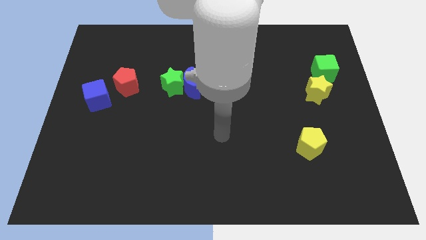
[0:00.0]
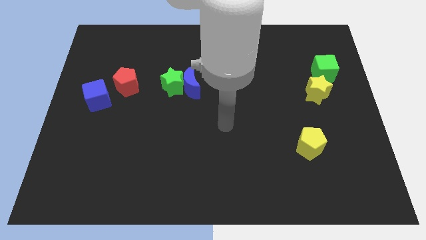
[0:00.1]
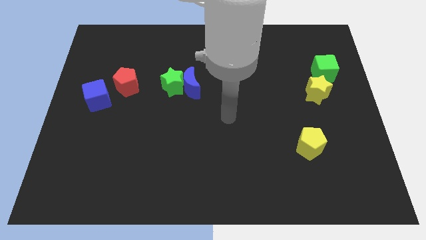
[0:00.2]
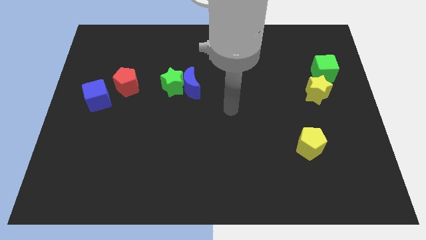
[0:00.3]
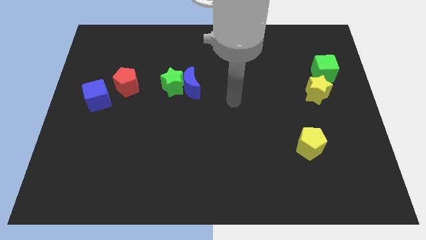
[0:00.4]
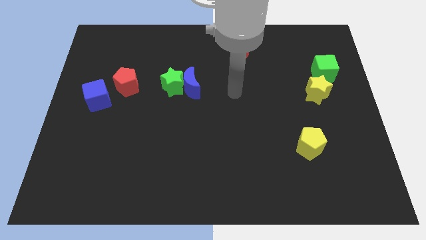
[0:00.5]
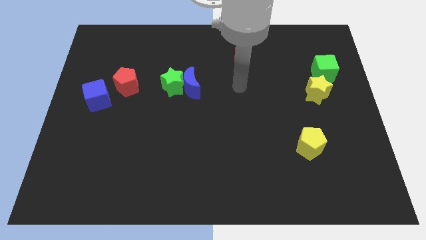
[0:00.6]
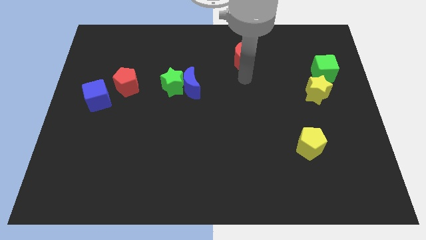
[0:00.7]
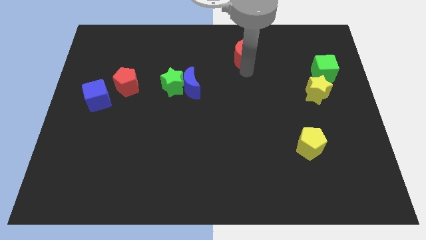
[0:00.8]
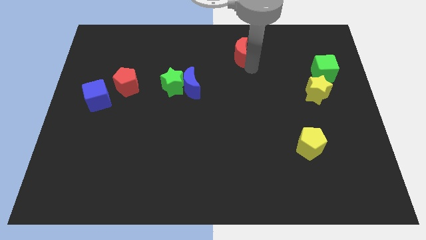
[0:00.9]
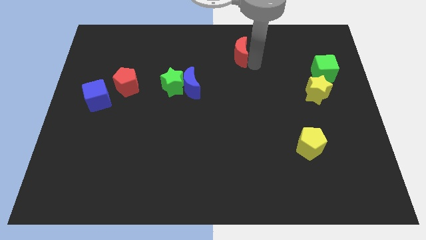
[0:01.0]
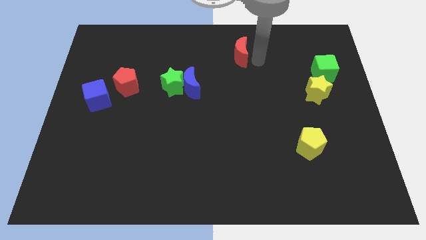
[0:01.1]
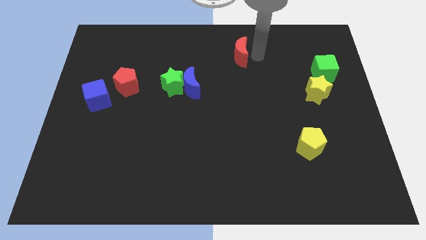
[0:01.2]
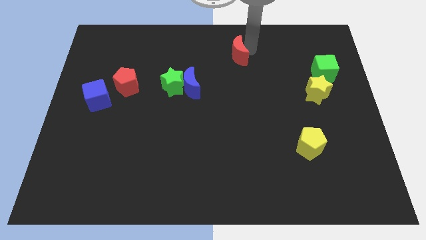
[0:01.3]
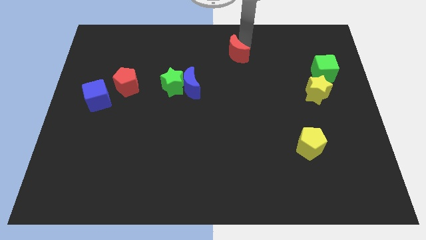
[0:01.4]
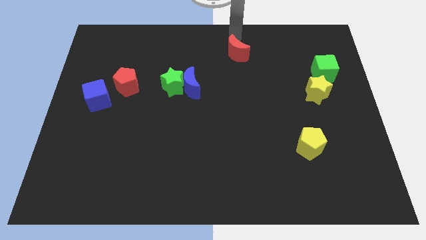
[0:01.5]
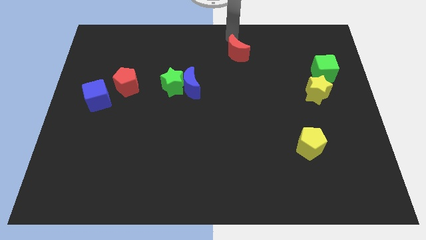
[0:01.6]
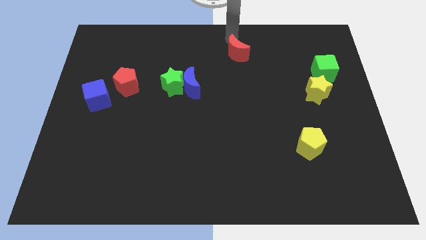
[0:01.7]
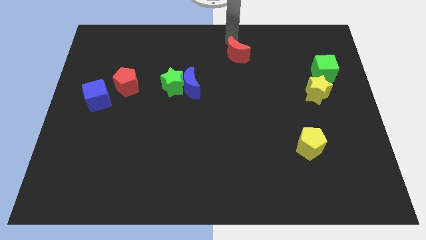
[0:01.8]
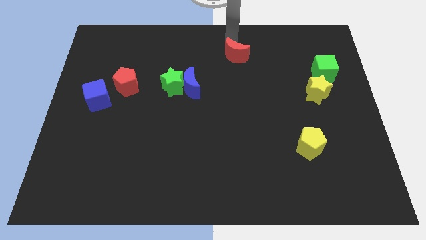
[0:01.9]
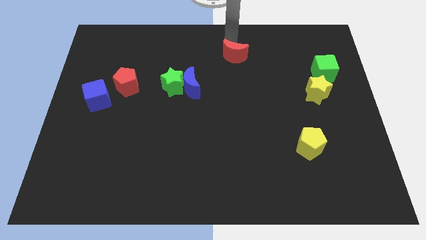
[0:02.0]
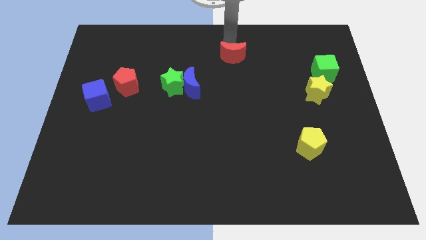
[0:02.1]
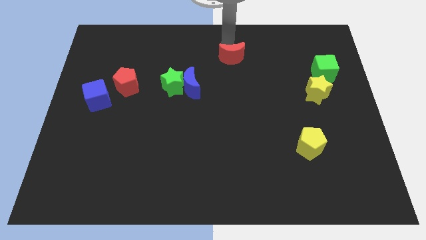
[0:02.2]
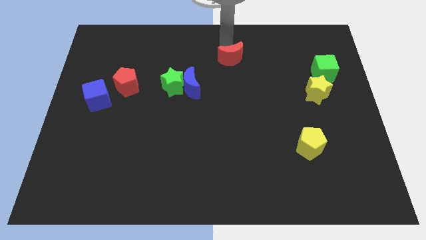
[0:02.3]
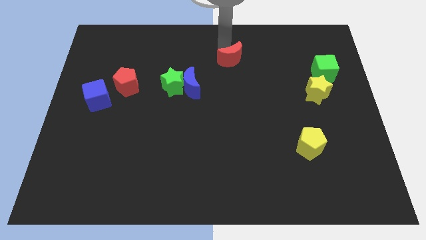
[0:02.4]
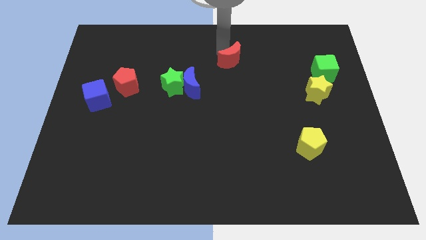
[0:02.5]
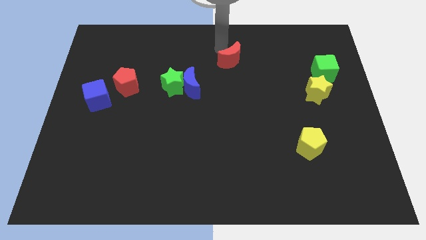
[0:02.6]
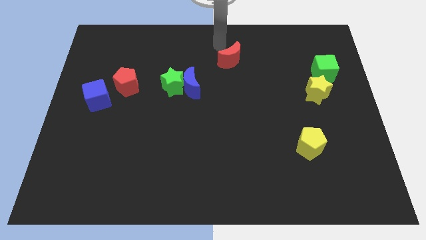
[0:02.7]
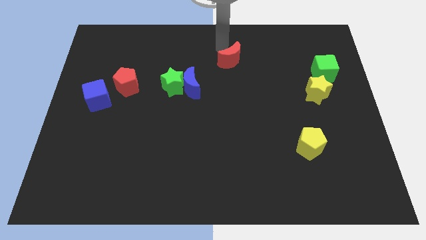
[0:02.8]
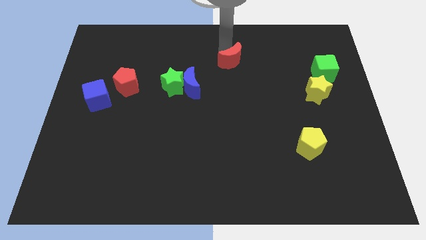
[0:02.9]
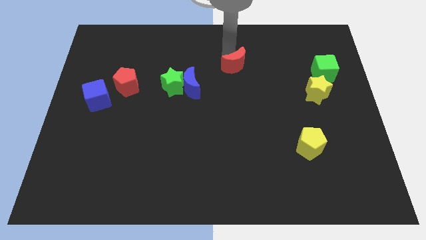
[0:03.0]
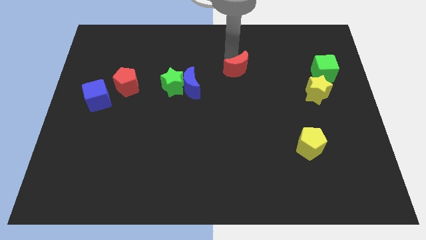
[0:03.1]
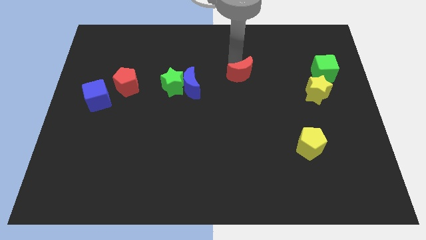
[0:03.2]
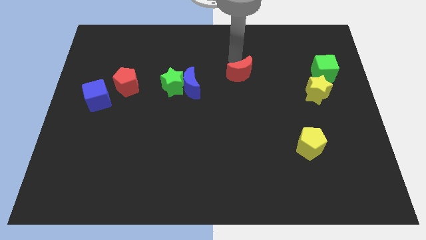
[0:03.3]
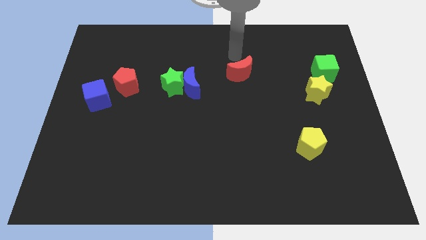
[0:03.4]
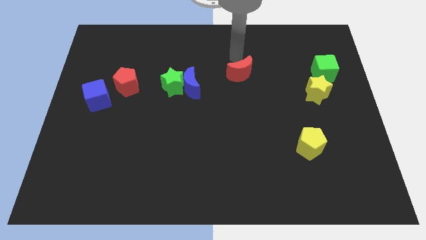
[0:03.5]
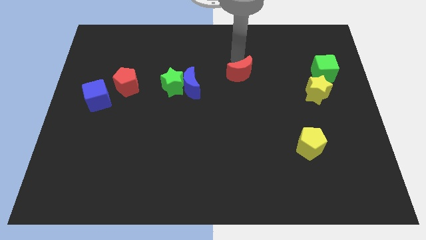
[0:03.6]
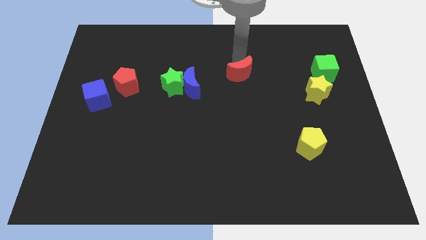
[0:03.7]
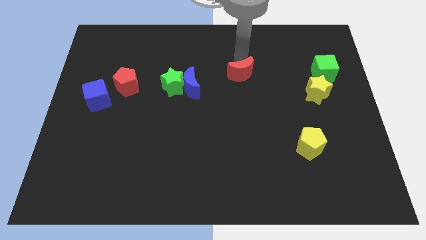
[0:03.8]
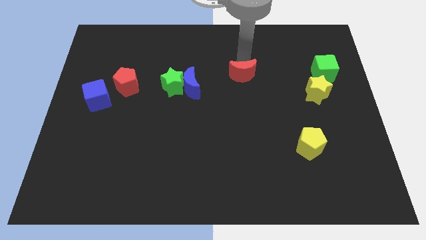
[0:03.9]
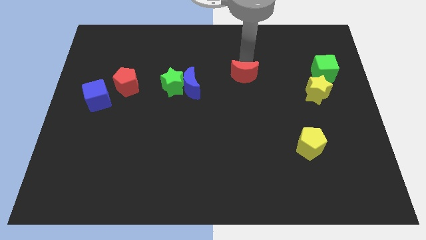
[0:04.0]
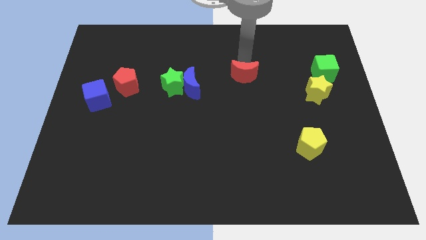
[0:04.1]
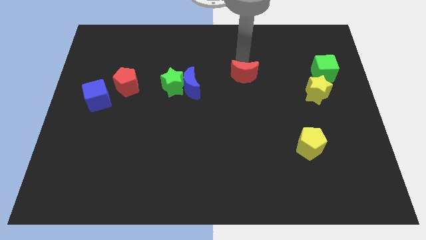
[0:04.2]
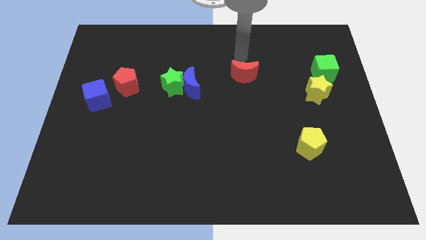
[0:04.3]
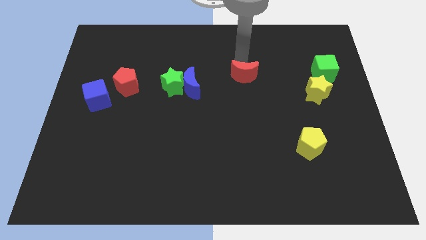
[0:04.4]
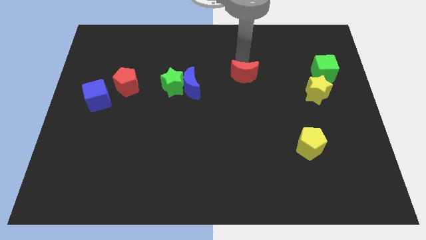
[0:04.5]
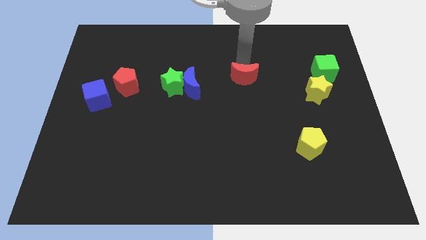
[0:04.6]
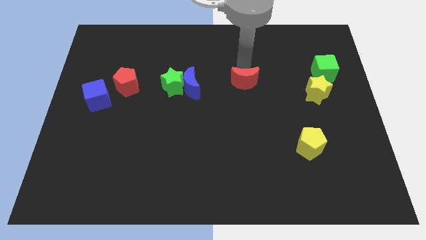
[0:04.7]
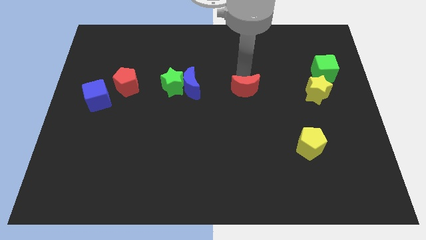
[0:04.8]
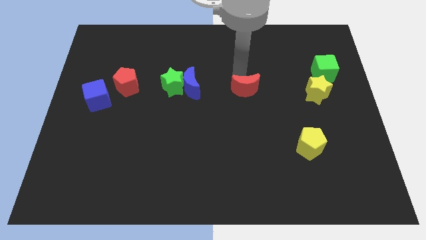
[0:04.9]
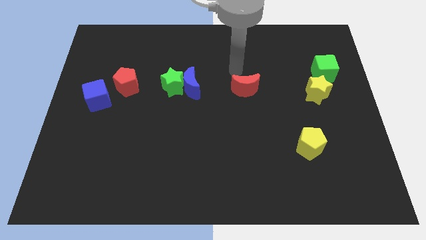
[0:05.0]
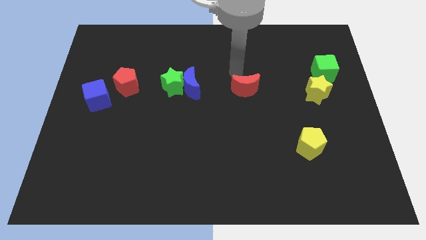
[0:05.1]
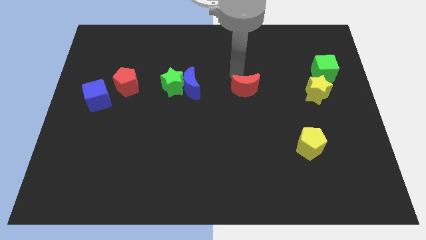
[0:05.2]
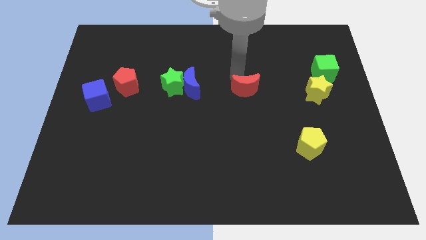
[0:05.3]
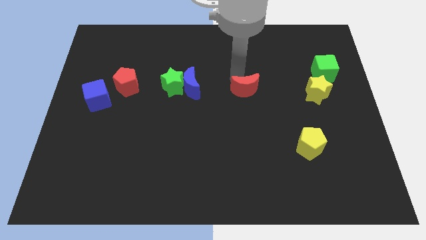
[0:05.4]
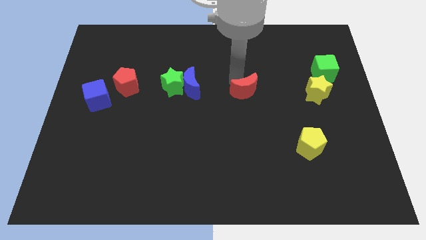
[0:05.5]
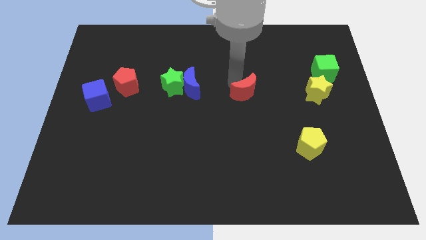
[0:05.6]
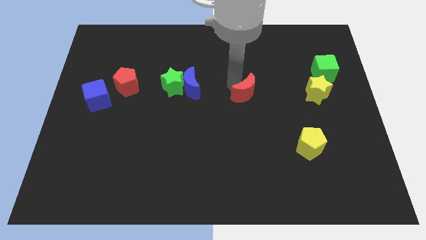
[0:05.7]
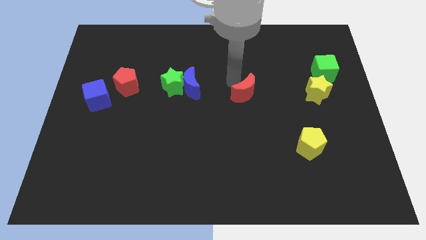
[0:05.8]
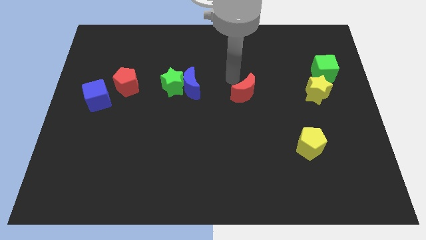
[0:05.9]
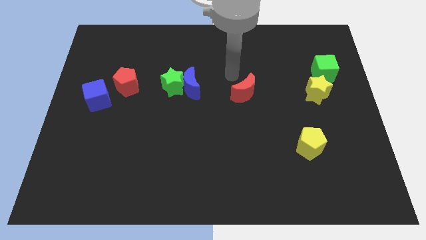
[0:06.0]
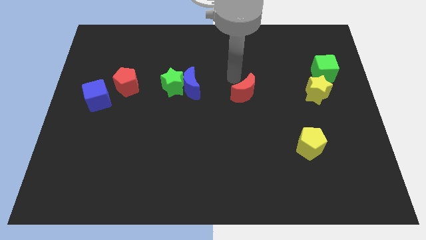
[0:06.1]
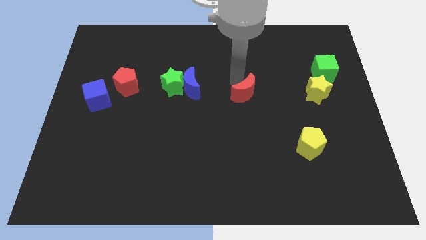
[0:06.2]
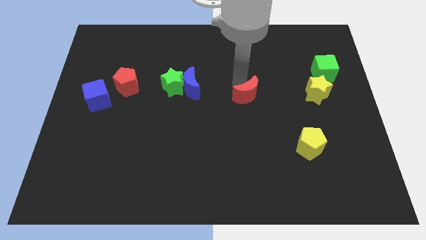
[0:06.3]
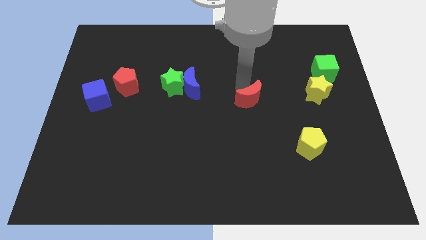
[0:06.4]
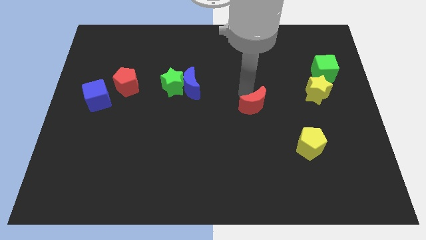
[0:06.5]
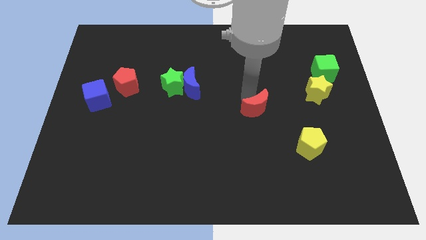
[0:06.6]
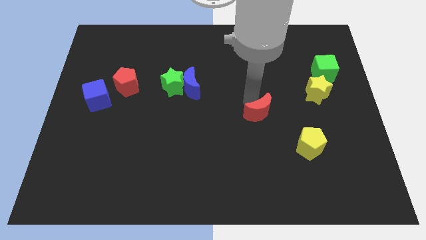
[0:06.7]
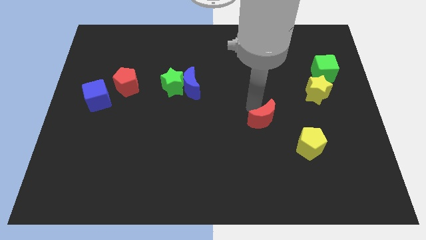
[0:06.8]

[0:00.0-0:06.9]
push the red moon to the top left side of the yellow pentagon
